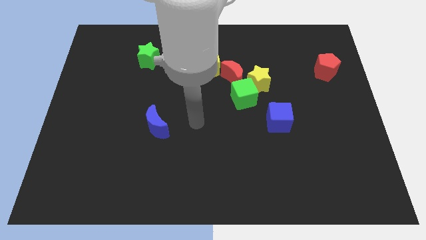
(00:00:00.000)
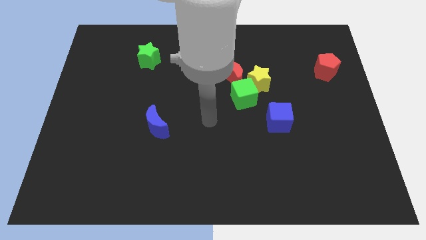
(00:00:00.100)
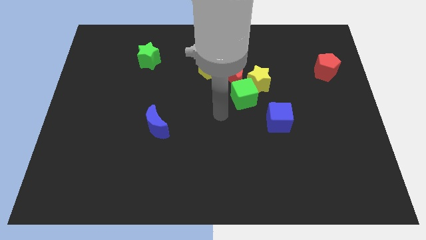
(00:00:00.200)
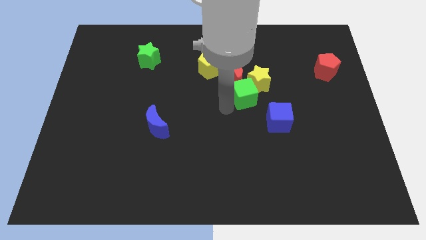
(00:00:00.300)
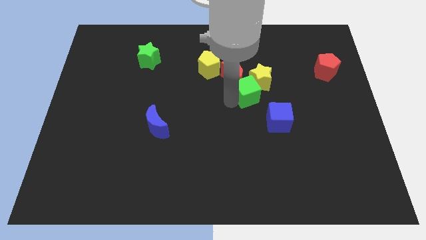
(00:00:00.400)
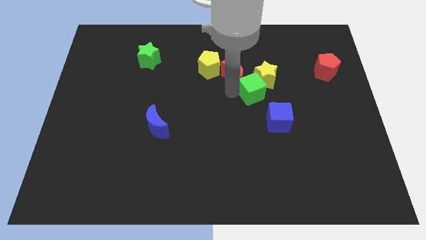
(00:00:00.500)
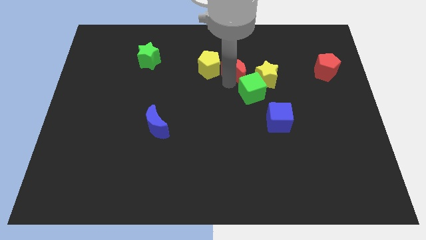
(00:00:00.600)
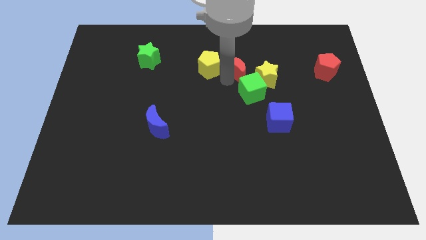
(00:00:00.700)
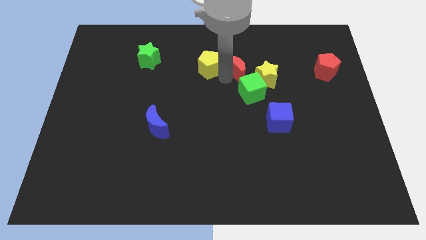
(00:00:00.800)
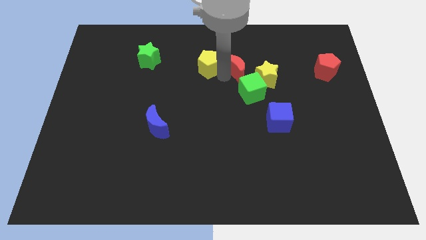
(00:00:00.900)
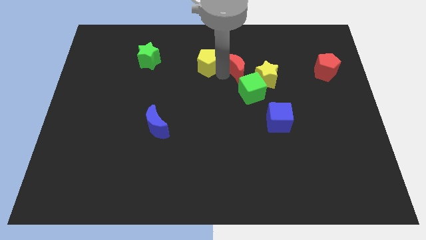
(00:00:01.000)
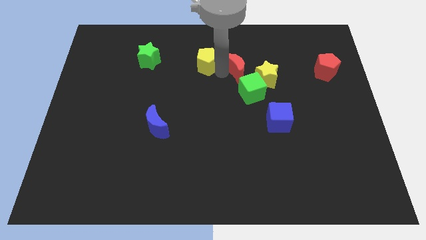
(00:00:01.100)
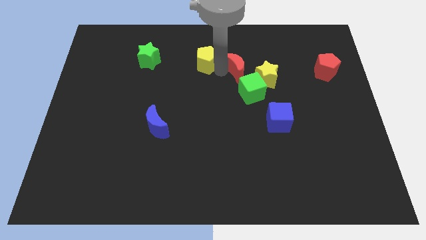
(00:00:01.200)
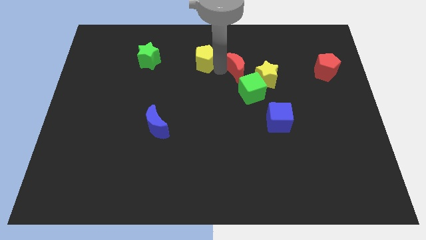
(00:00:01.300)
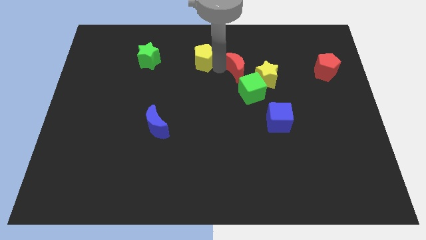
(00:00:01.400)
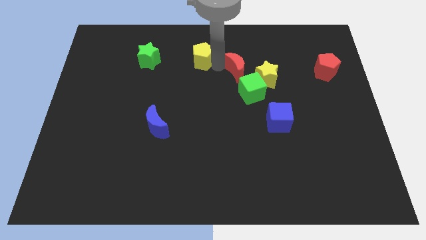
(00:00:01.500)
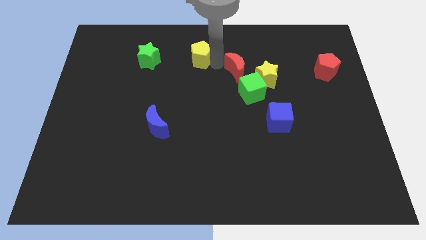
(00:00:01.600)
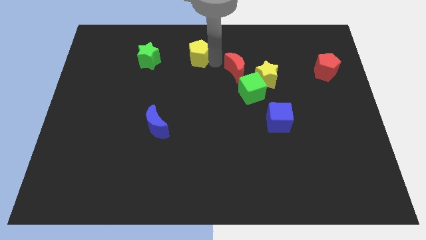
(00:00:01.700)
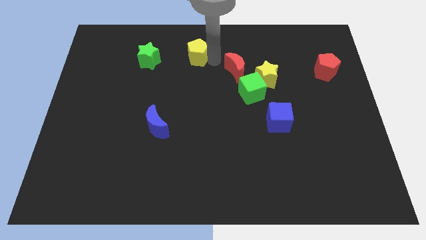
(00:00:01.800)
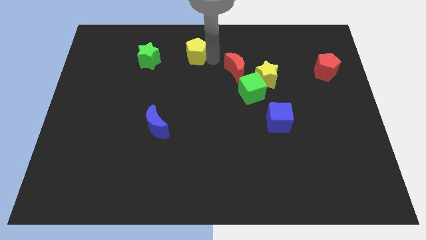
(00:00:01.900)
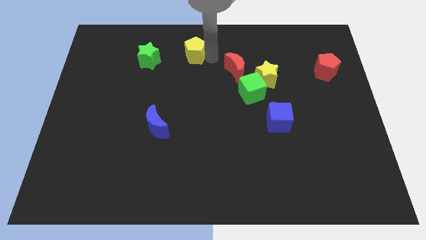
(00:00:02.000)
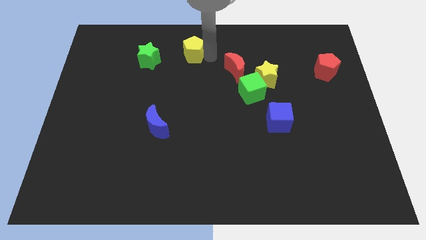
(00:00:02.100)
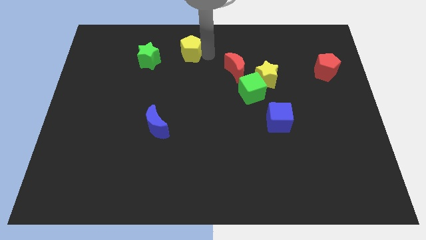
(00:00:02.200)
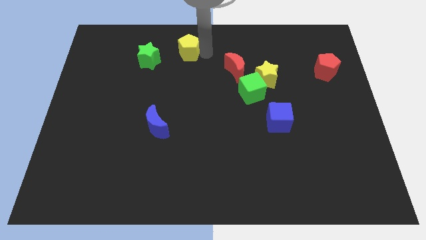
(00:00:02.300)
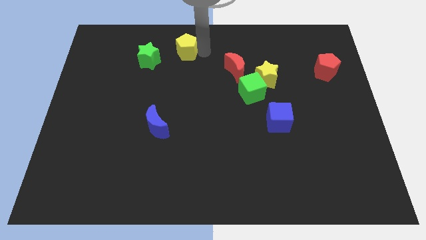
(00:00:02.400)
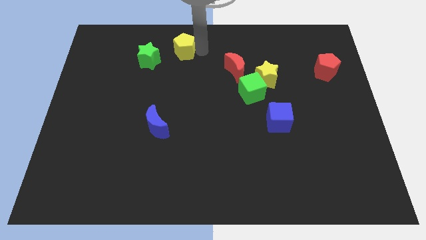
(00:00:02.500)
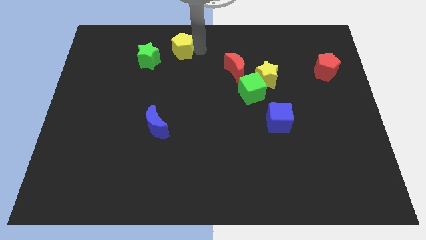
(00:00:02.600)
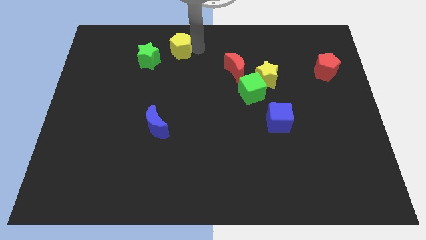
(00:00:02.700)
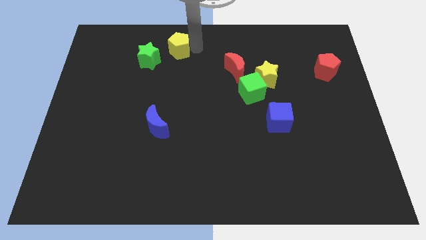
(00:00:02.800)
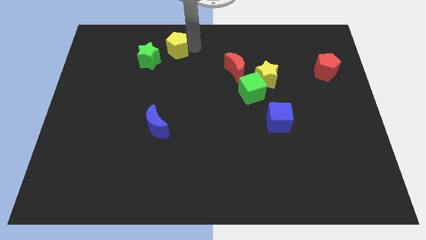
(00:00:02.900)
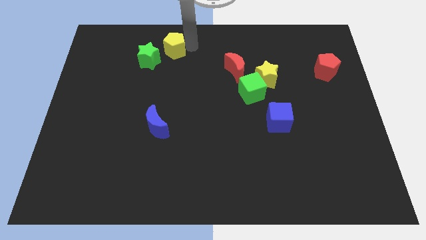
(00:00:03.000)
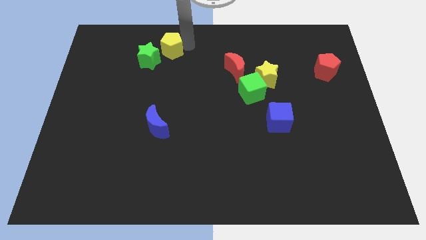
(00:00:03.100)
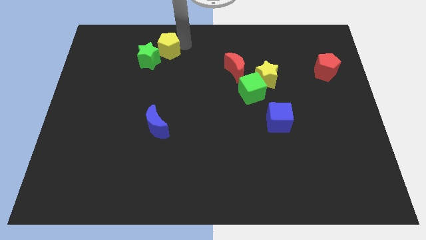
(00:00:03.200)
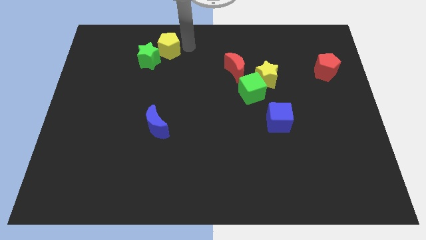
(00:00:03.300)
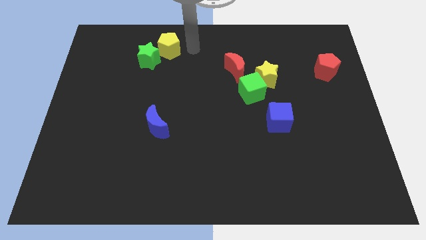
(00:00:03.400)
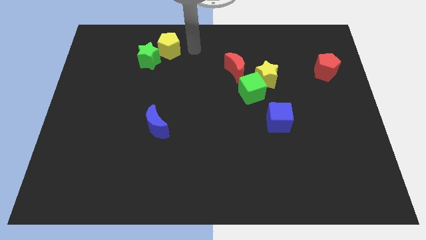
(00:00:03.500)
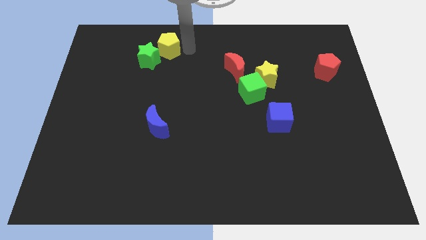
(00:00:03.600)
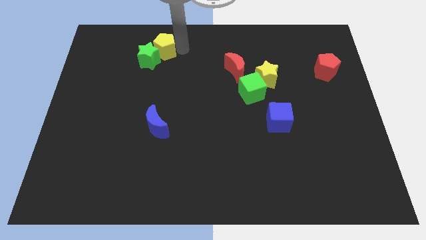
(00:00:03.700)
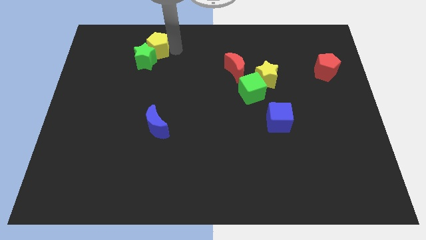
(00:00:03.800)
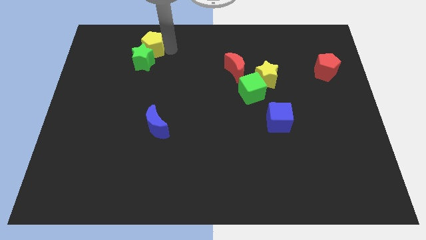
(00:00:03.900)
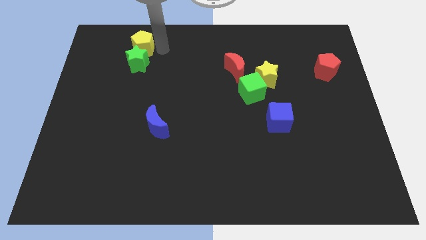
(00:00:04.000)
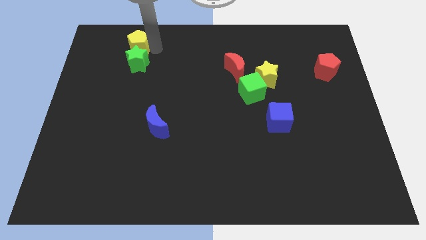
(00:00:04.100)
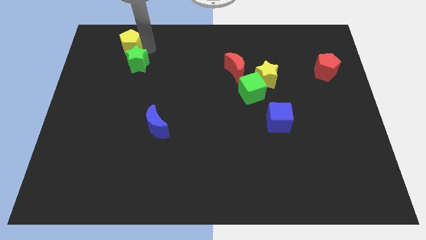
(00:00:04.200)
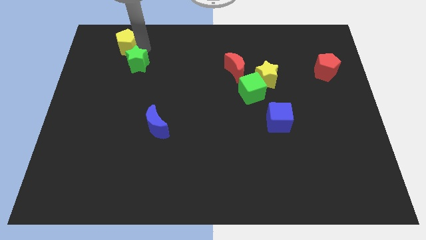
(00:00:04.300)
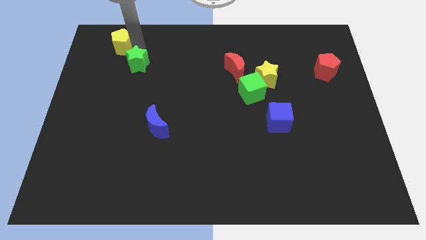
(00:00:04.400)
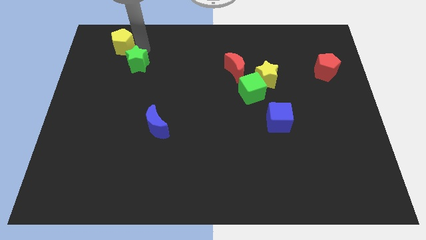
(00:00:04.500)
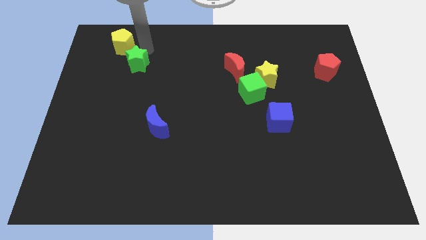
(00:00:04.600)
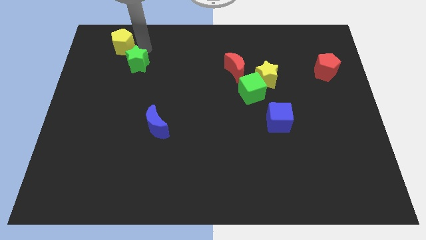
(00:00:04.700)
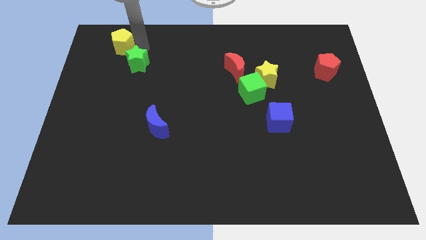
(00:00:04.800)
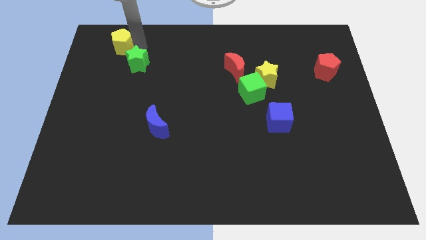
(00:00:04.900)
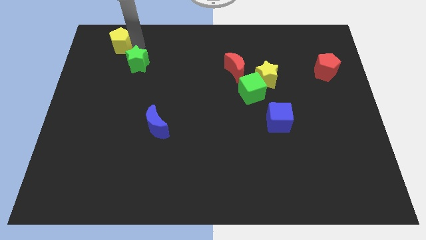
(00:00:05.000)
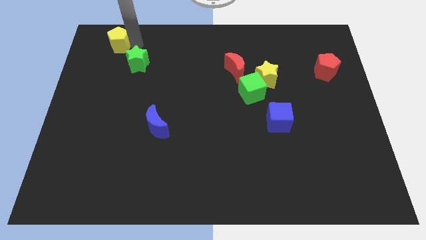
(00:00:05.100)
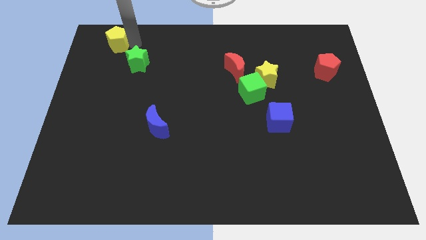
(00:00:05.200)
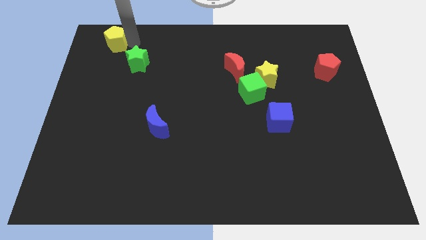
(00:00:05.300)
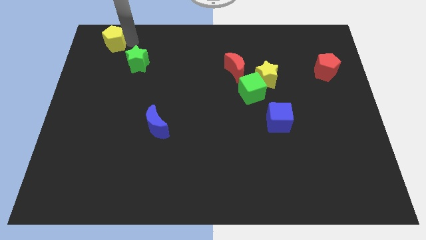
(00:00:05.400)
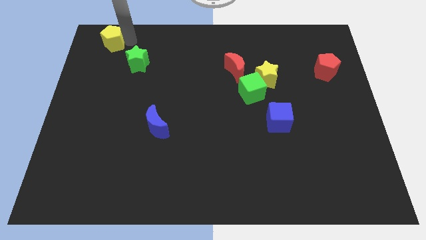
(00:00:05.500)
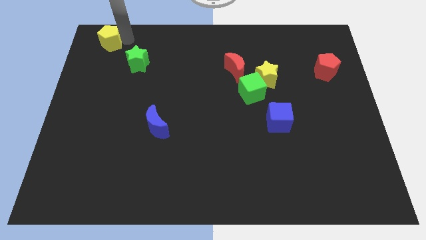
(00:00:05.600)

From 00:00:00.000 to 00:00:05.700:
slide the yellow pentagon to the top left corner

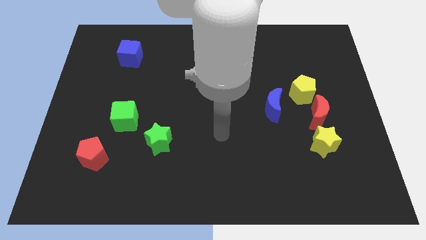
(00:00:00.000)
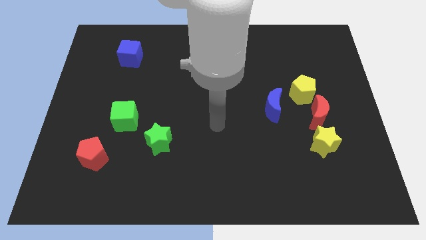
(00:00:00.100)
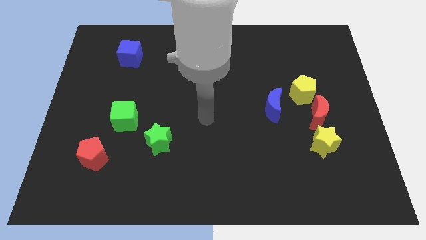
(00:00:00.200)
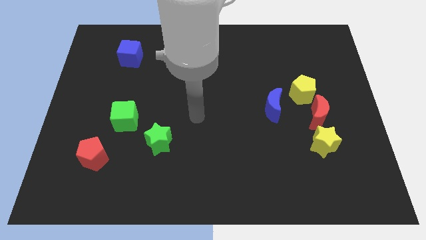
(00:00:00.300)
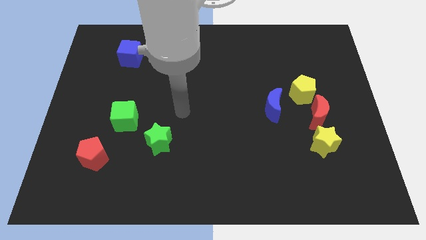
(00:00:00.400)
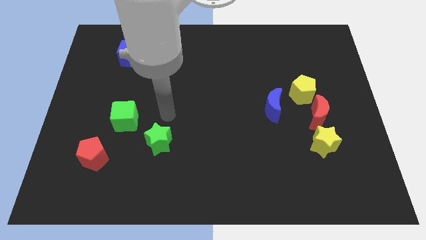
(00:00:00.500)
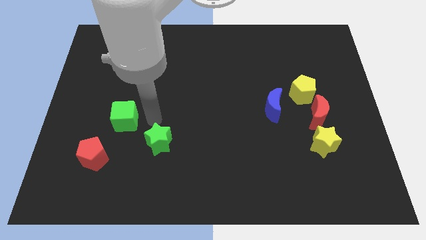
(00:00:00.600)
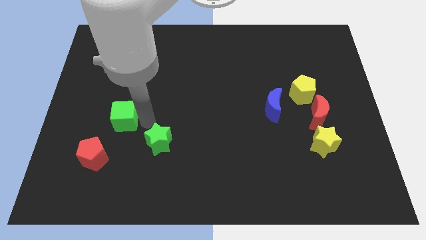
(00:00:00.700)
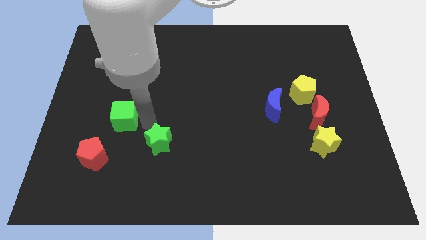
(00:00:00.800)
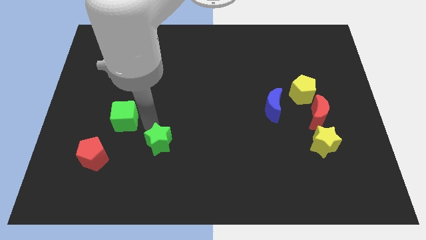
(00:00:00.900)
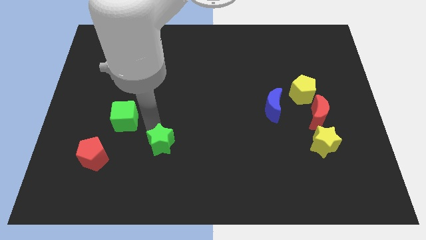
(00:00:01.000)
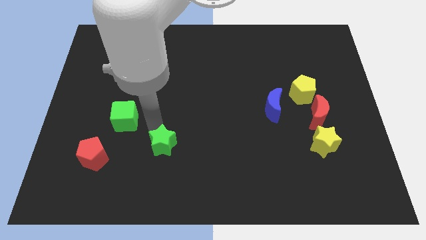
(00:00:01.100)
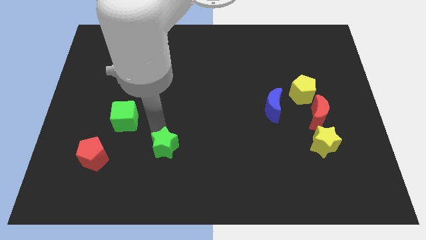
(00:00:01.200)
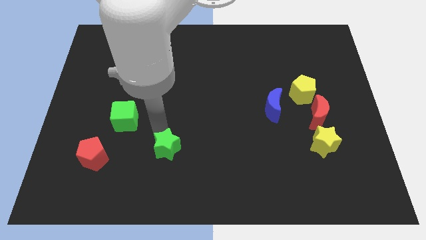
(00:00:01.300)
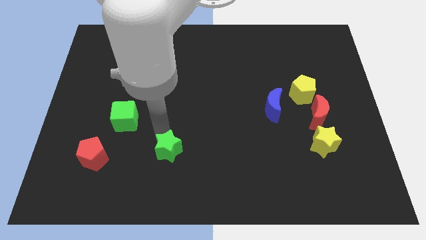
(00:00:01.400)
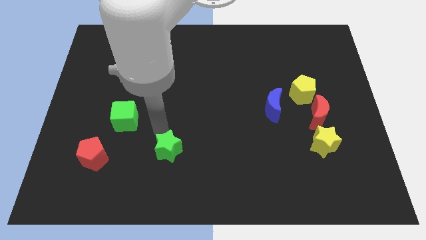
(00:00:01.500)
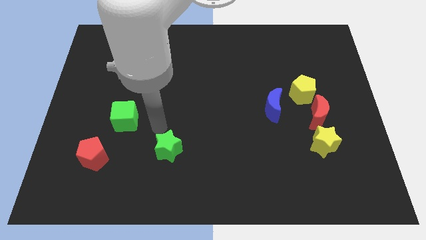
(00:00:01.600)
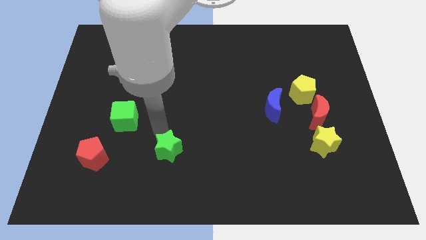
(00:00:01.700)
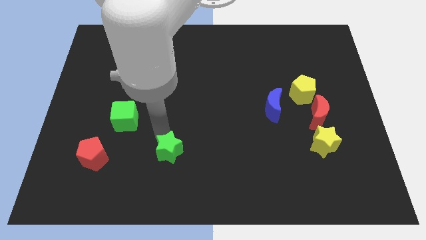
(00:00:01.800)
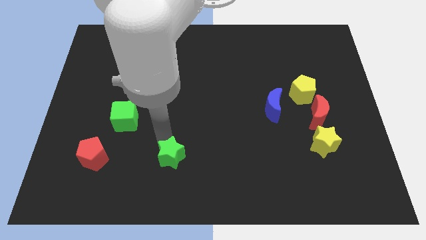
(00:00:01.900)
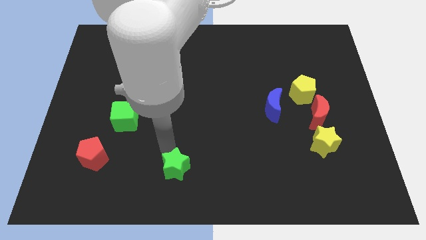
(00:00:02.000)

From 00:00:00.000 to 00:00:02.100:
put the green star to the bottom side
